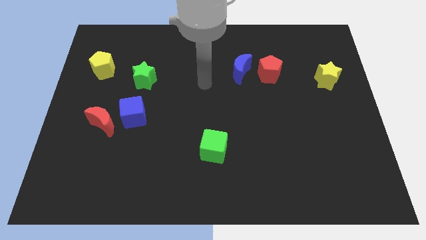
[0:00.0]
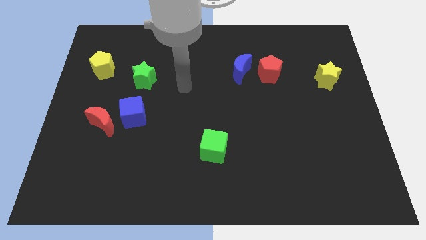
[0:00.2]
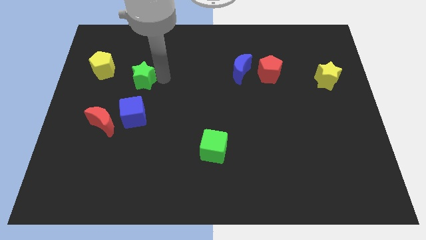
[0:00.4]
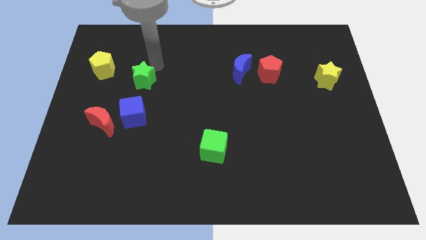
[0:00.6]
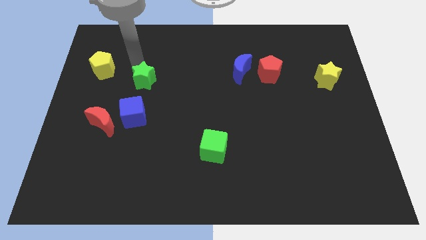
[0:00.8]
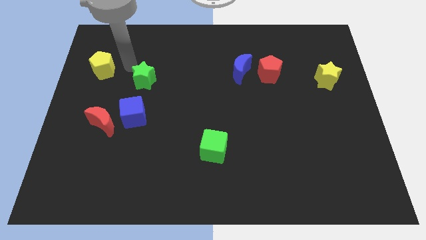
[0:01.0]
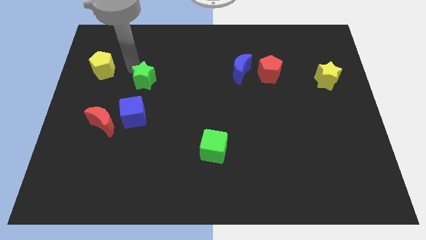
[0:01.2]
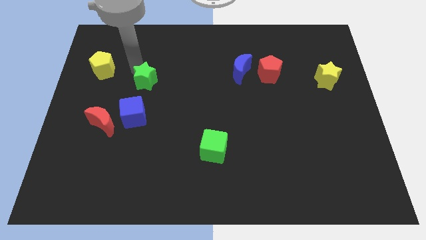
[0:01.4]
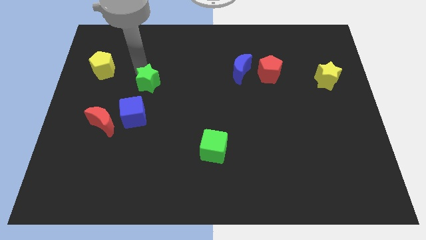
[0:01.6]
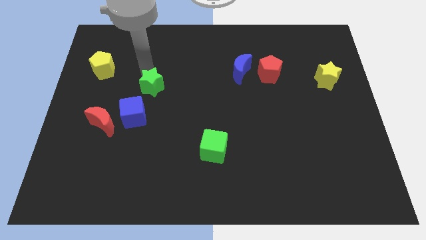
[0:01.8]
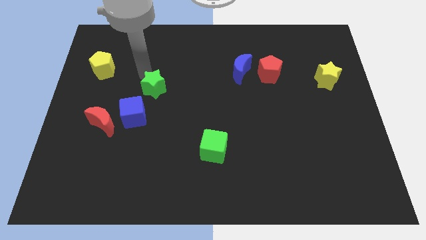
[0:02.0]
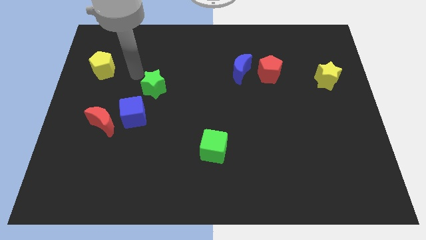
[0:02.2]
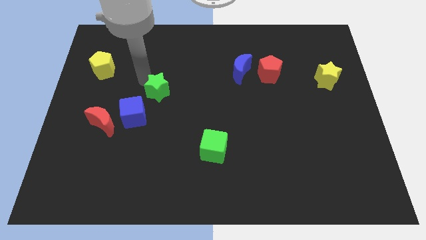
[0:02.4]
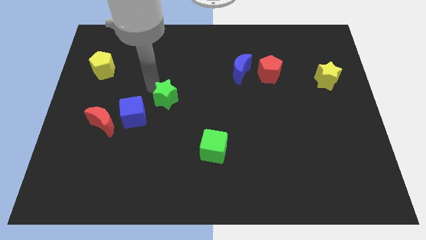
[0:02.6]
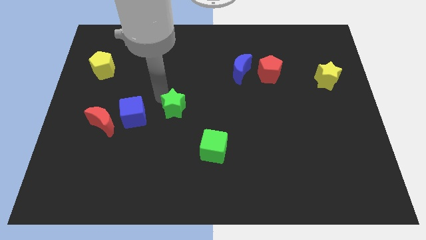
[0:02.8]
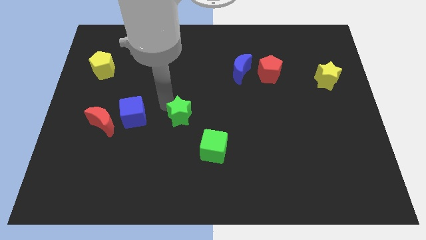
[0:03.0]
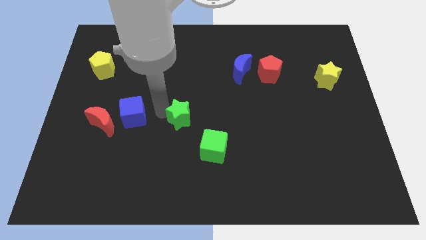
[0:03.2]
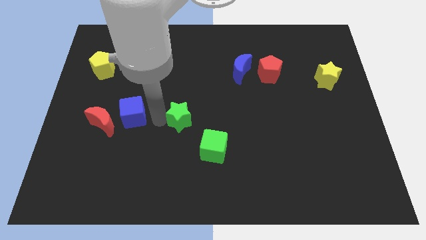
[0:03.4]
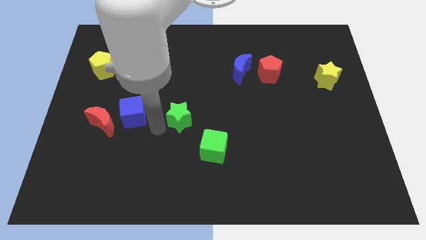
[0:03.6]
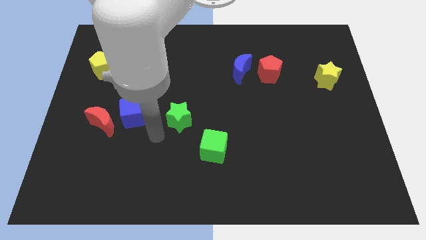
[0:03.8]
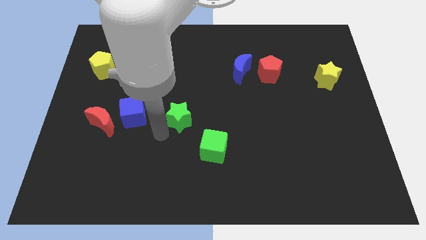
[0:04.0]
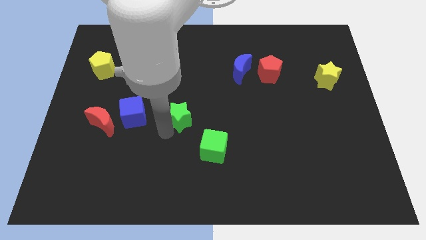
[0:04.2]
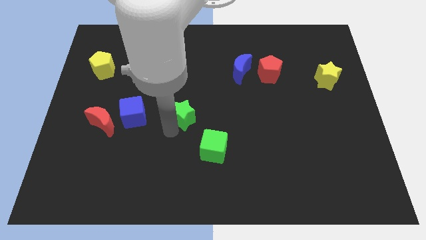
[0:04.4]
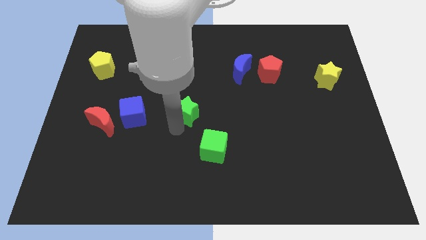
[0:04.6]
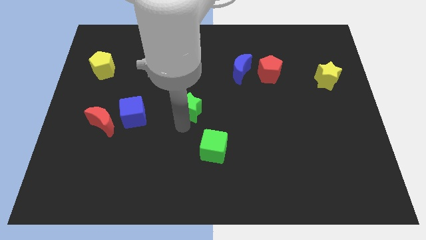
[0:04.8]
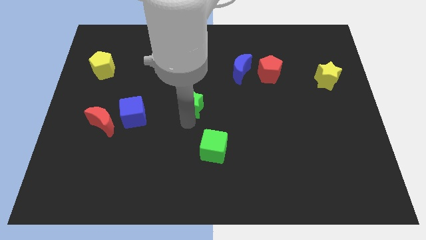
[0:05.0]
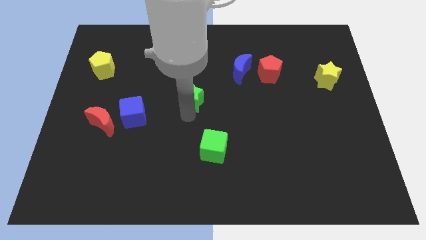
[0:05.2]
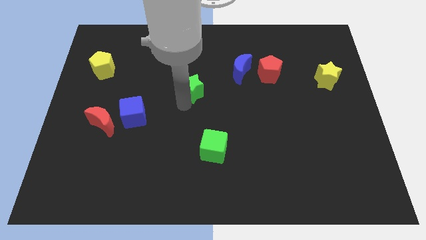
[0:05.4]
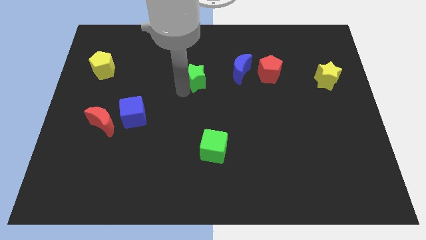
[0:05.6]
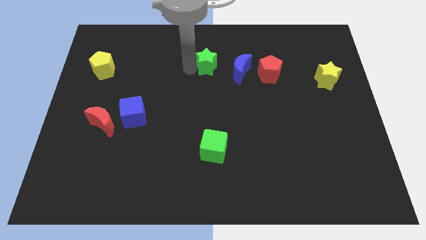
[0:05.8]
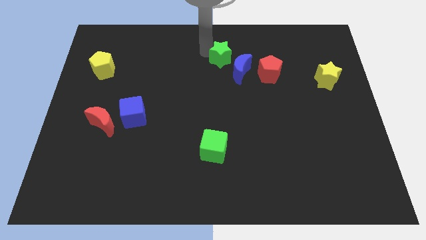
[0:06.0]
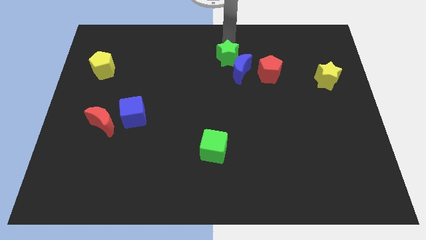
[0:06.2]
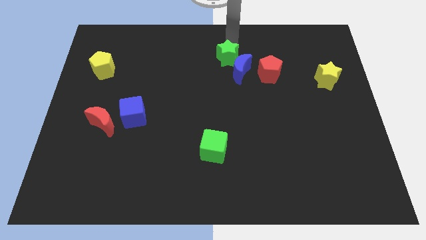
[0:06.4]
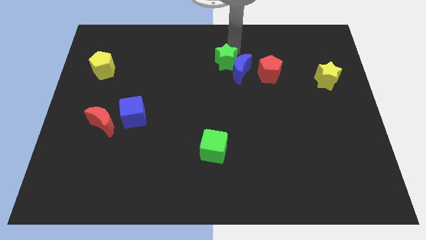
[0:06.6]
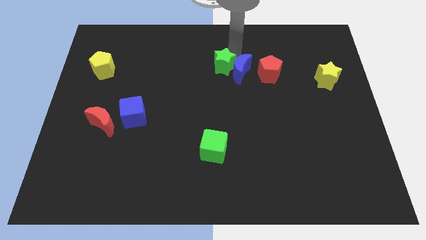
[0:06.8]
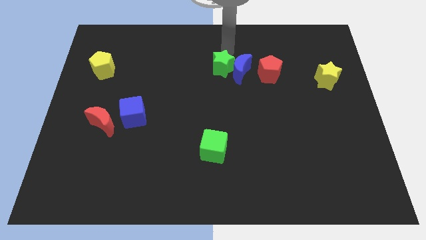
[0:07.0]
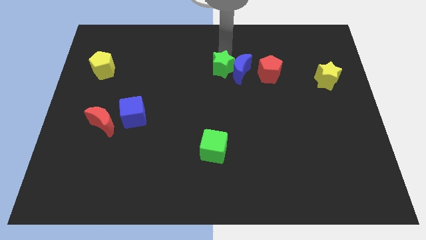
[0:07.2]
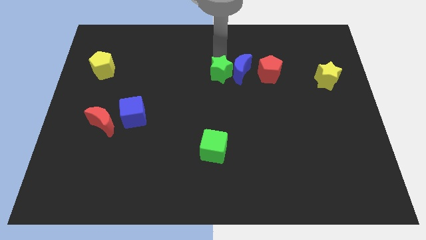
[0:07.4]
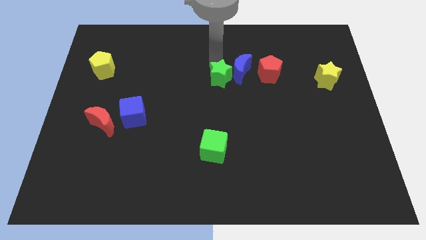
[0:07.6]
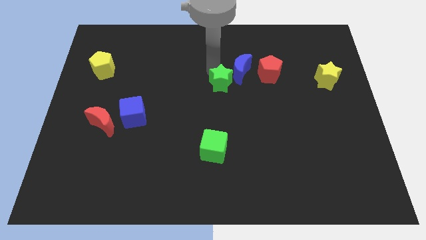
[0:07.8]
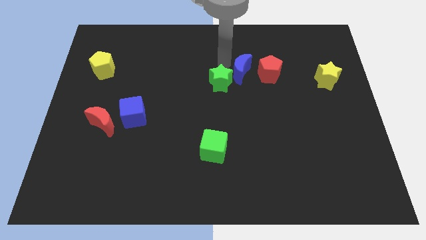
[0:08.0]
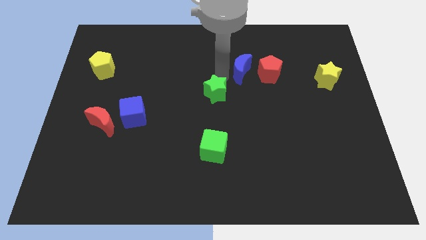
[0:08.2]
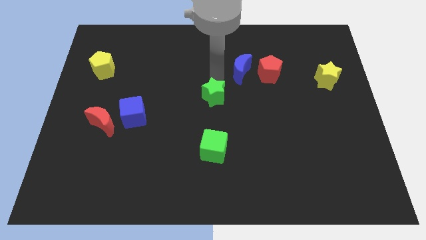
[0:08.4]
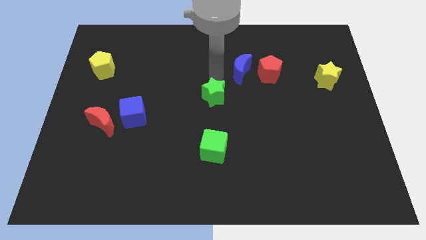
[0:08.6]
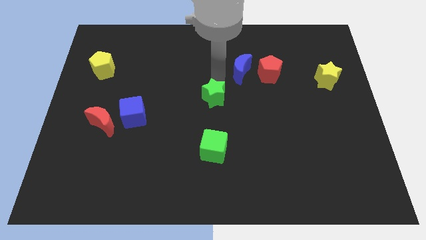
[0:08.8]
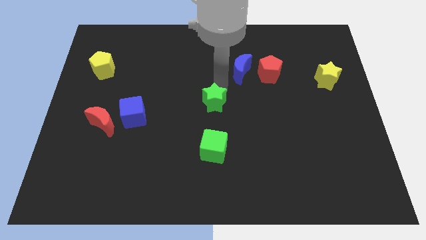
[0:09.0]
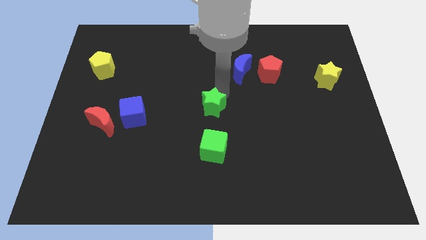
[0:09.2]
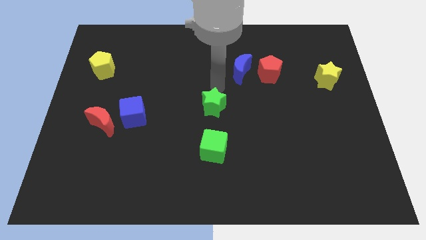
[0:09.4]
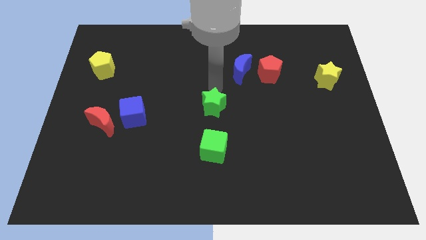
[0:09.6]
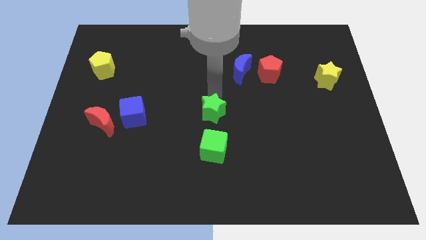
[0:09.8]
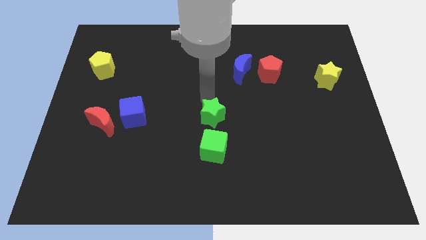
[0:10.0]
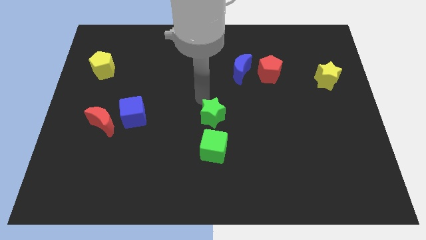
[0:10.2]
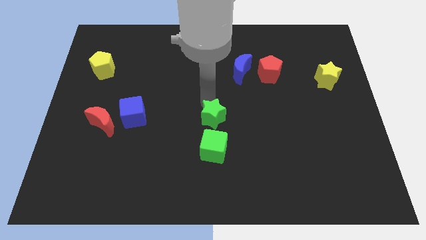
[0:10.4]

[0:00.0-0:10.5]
push the green star down and to the right diagonally

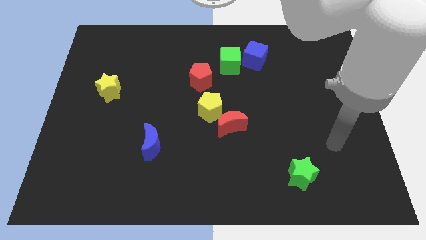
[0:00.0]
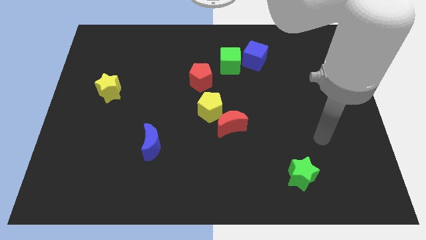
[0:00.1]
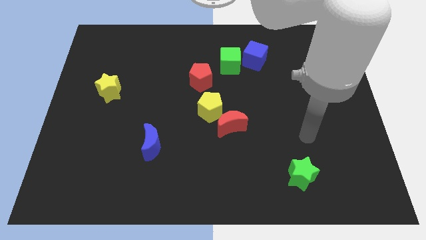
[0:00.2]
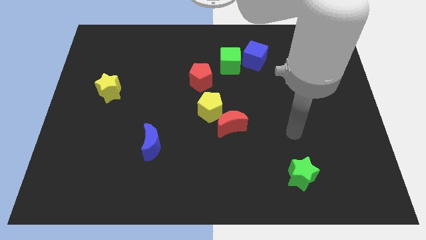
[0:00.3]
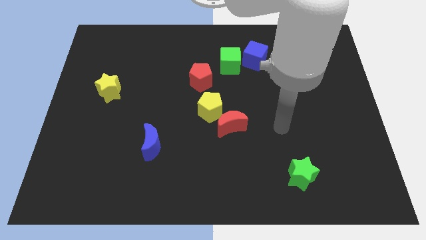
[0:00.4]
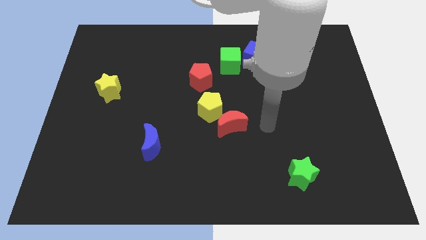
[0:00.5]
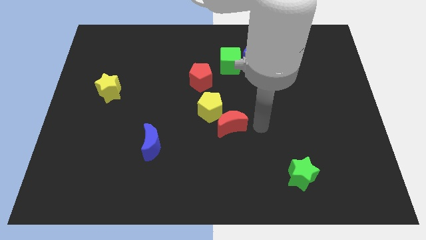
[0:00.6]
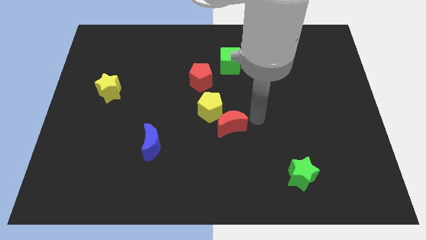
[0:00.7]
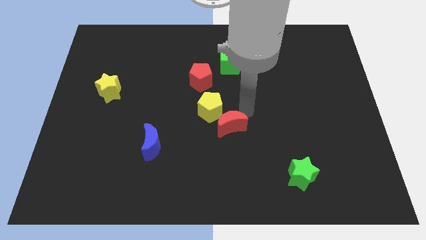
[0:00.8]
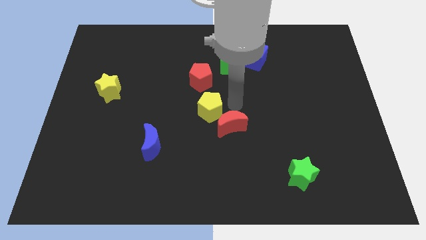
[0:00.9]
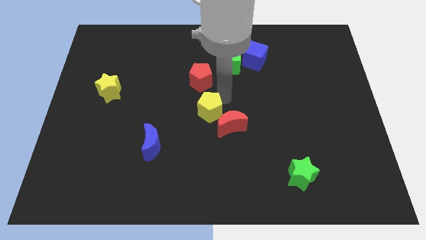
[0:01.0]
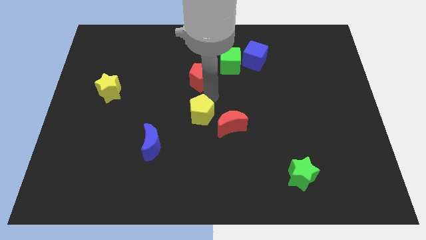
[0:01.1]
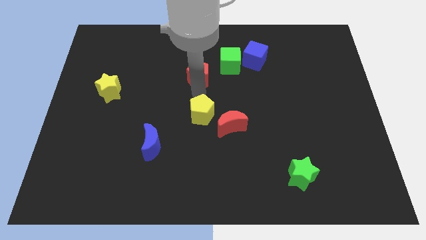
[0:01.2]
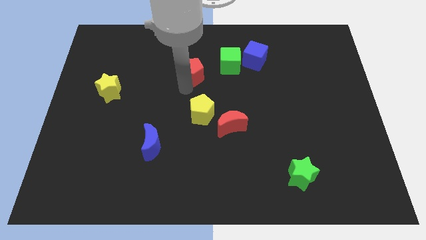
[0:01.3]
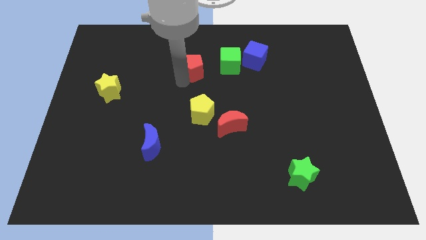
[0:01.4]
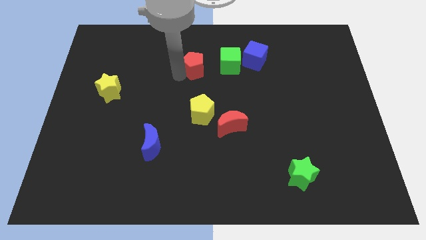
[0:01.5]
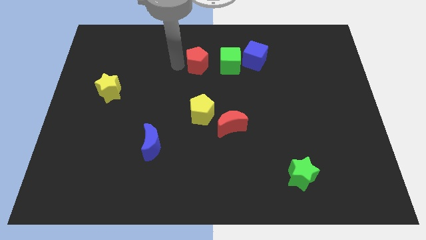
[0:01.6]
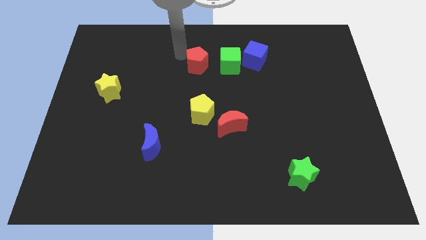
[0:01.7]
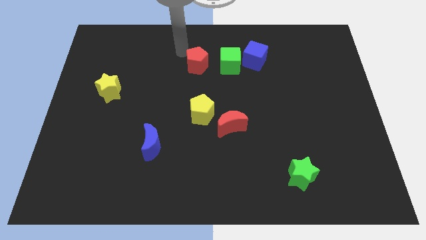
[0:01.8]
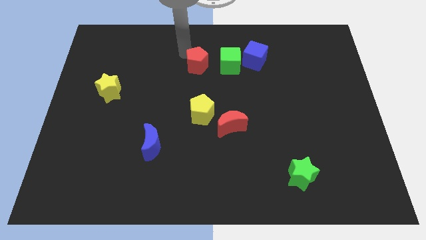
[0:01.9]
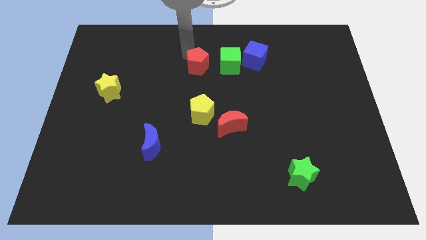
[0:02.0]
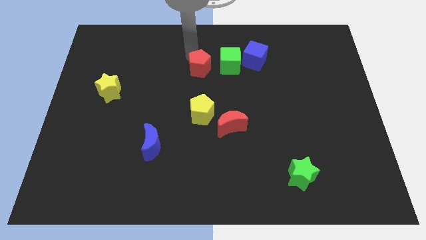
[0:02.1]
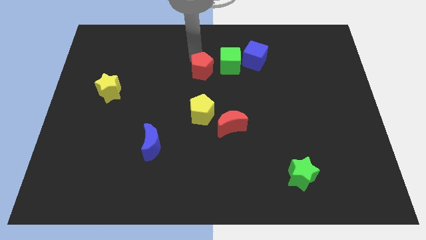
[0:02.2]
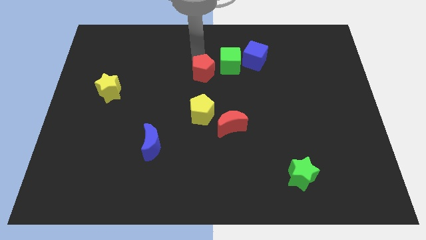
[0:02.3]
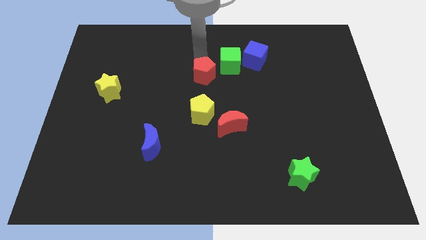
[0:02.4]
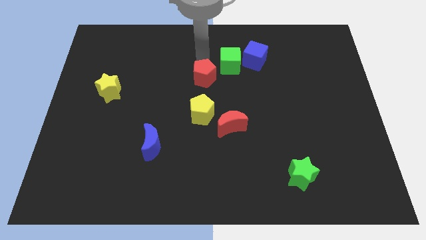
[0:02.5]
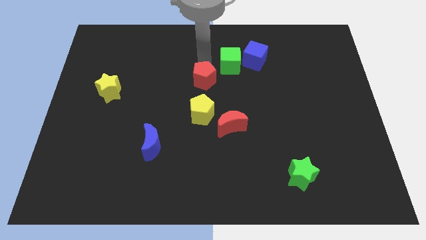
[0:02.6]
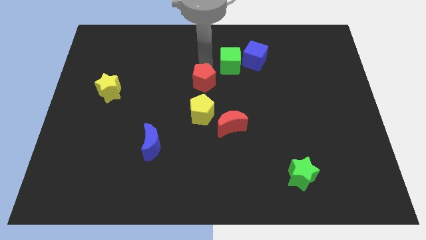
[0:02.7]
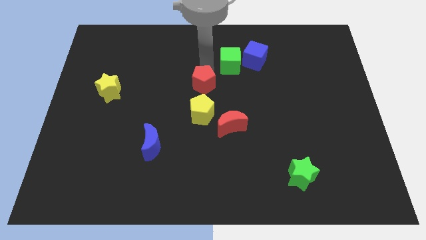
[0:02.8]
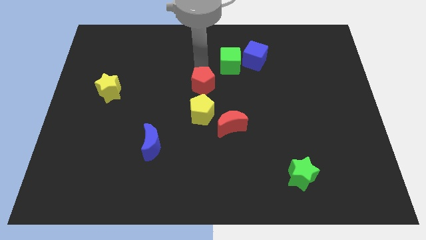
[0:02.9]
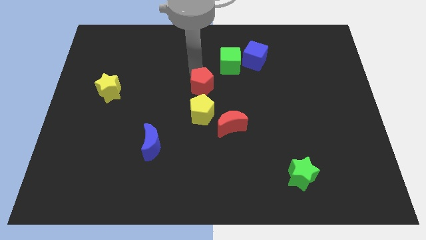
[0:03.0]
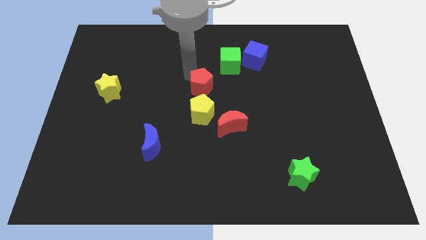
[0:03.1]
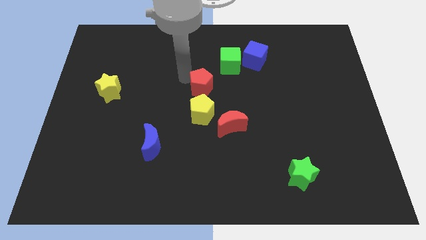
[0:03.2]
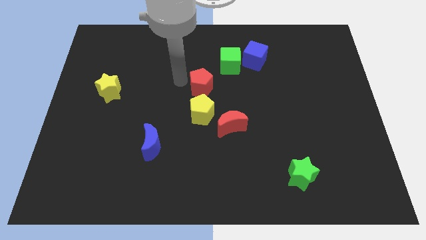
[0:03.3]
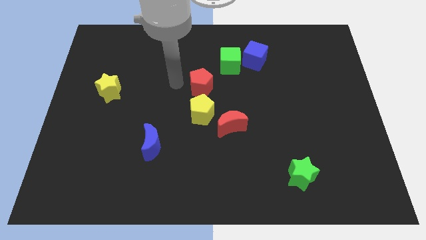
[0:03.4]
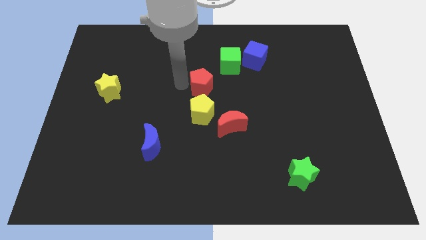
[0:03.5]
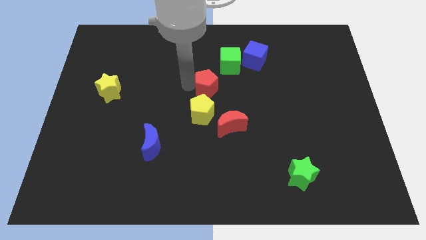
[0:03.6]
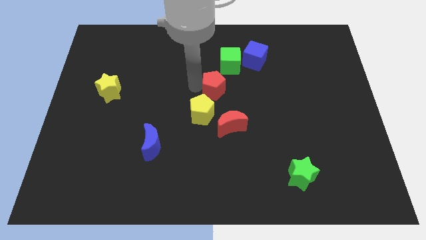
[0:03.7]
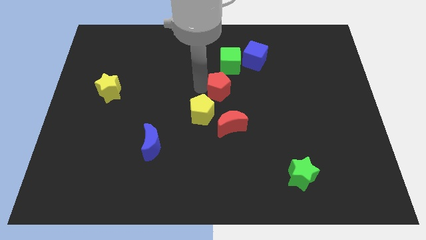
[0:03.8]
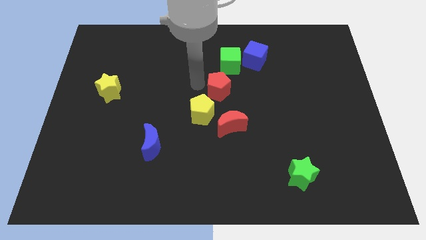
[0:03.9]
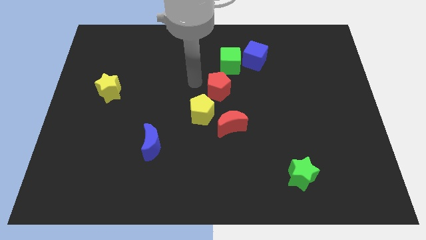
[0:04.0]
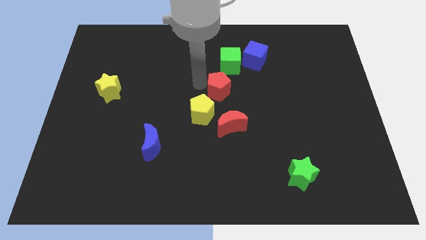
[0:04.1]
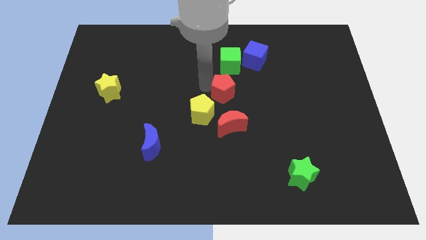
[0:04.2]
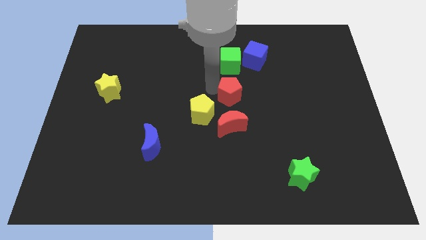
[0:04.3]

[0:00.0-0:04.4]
push the red pentagon a little bit downwards and to the right
